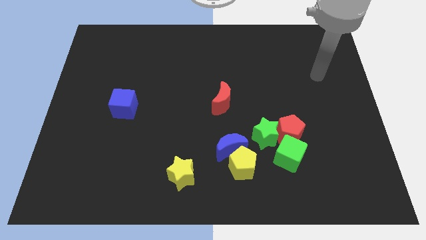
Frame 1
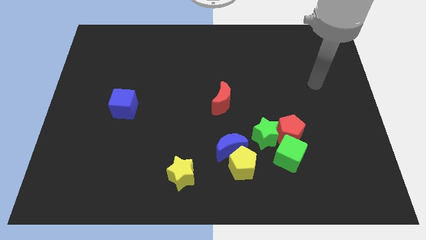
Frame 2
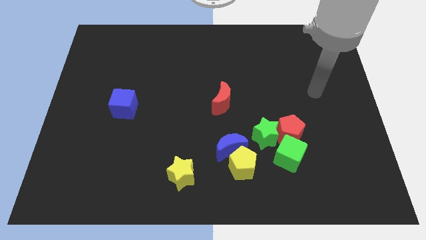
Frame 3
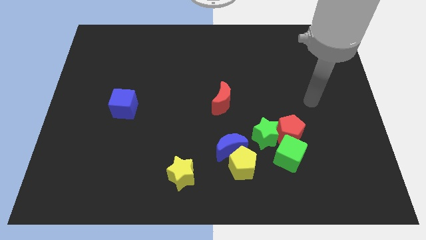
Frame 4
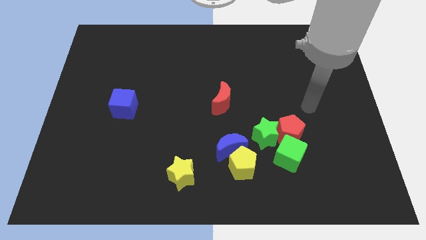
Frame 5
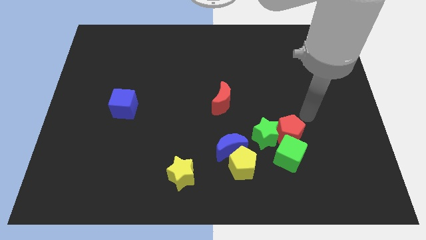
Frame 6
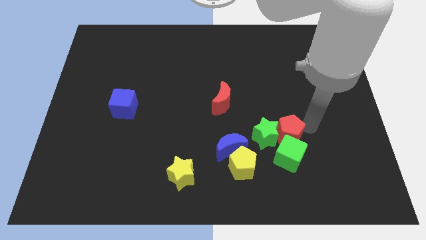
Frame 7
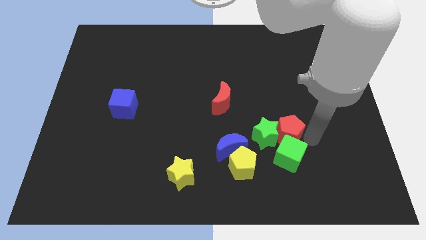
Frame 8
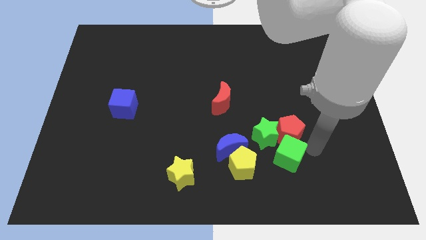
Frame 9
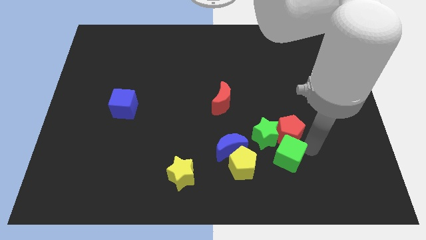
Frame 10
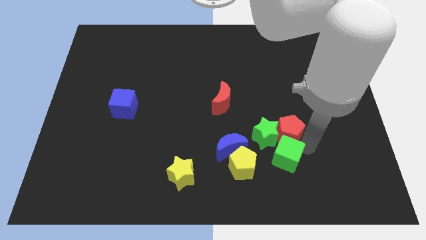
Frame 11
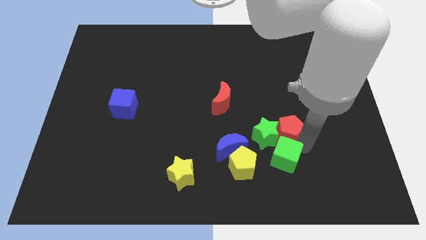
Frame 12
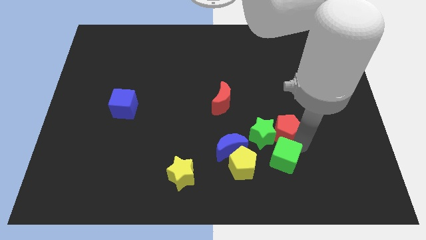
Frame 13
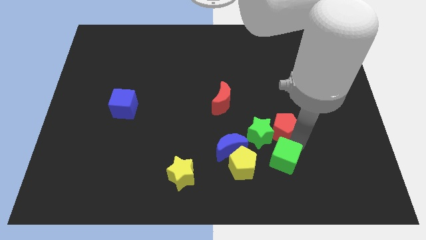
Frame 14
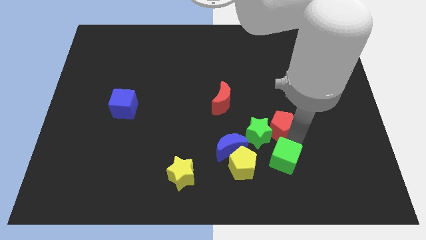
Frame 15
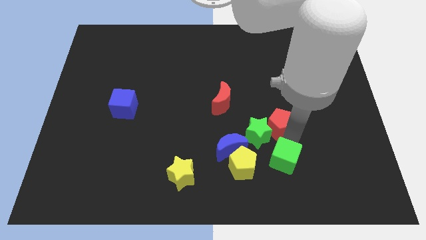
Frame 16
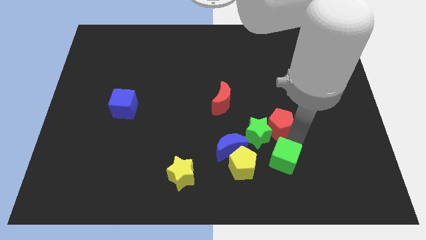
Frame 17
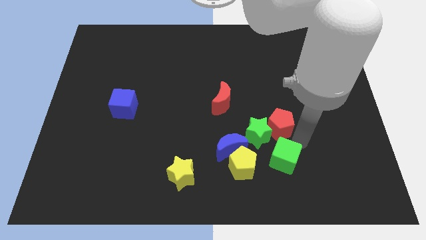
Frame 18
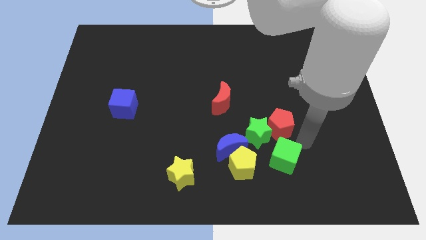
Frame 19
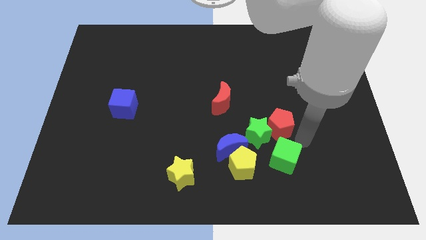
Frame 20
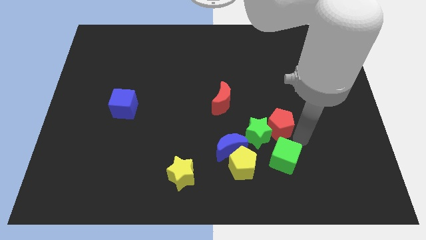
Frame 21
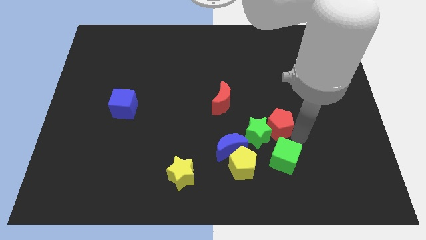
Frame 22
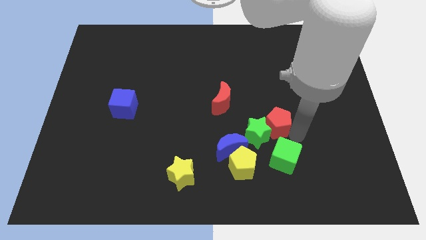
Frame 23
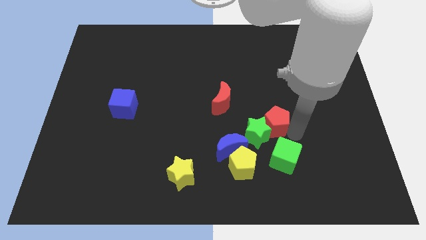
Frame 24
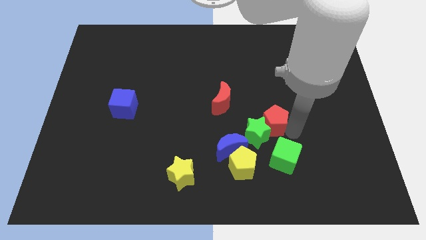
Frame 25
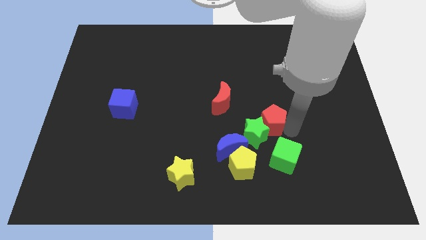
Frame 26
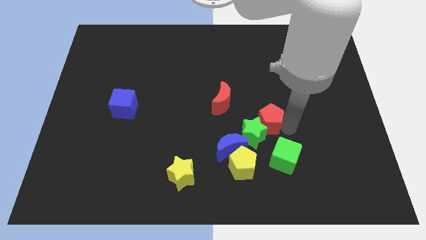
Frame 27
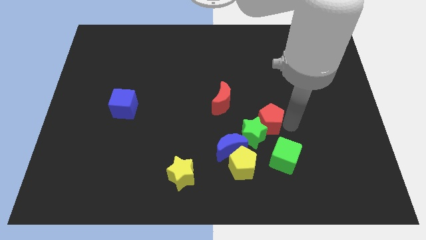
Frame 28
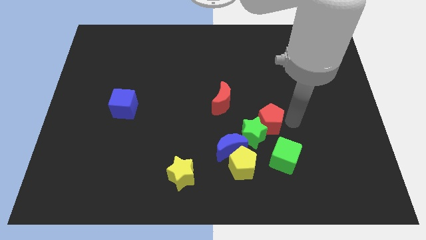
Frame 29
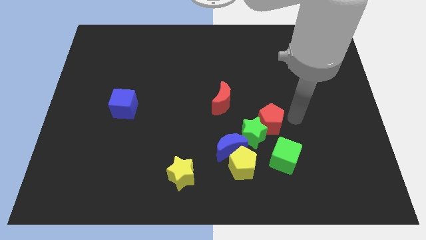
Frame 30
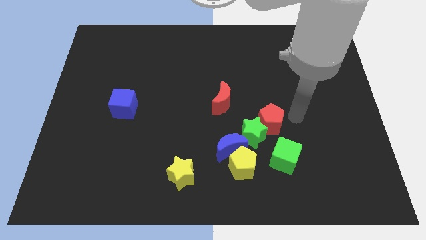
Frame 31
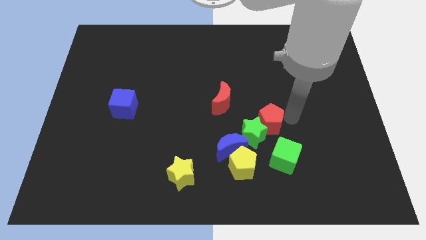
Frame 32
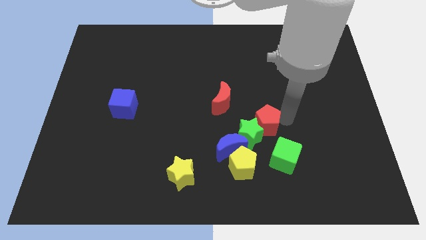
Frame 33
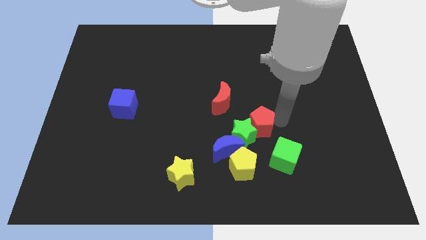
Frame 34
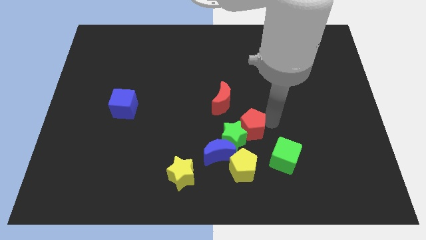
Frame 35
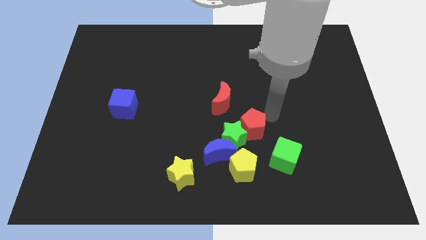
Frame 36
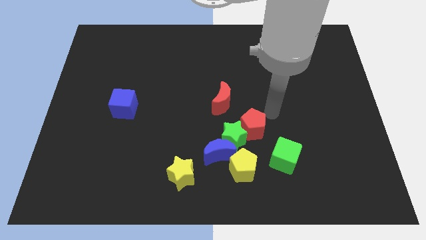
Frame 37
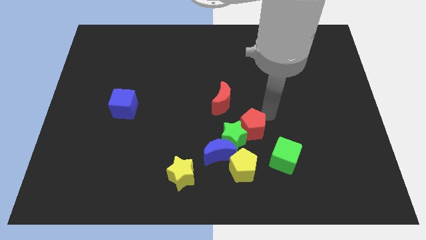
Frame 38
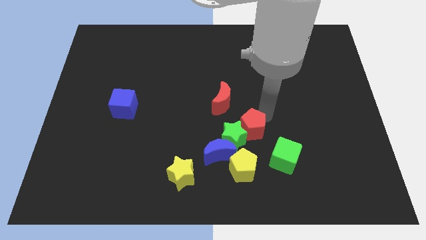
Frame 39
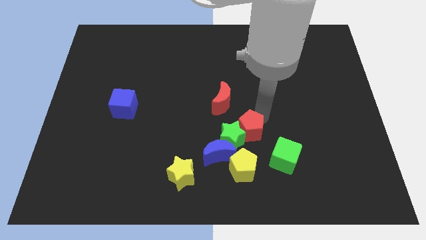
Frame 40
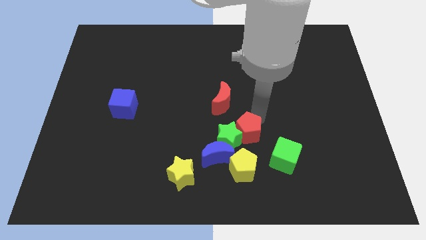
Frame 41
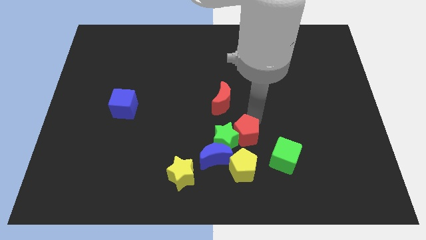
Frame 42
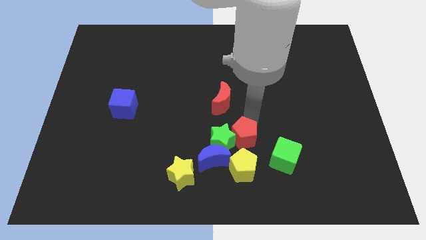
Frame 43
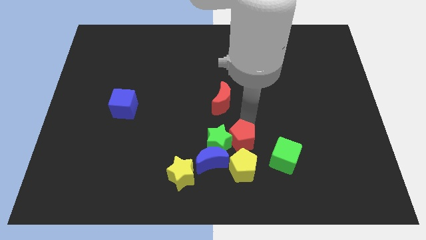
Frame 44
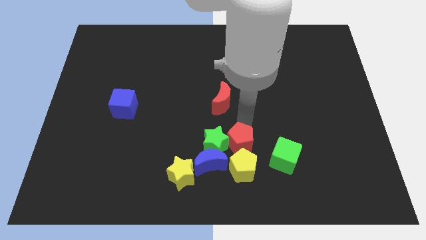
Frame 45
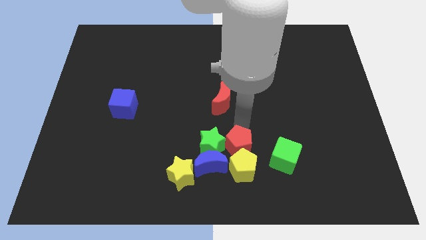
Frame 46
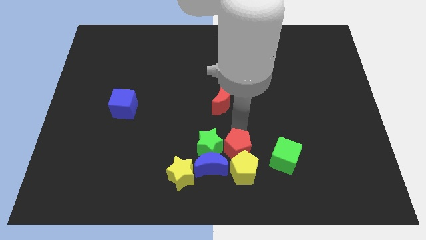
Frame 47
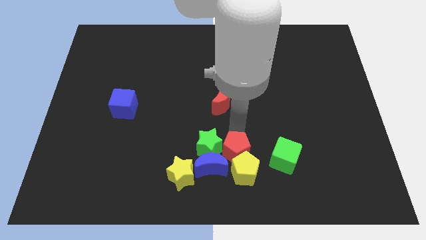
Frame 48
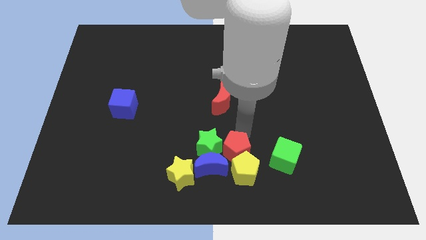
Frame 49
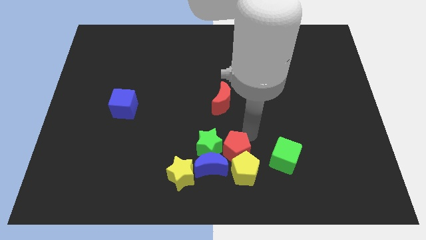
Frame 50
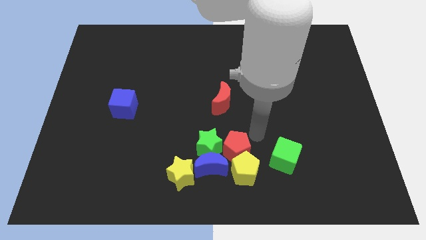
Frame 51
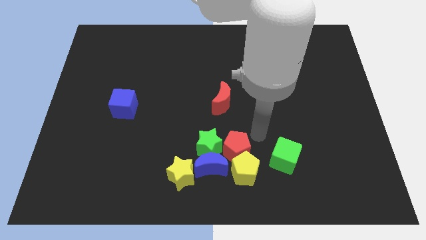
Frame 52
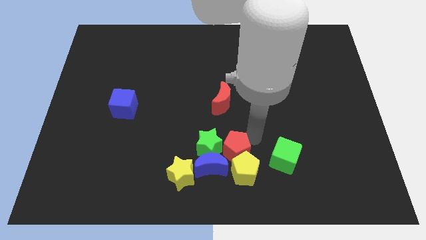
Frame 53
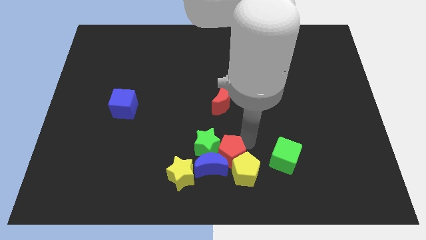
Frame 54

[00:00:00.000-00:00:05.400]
slide the red pentagon close to the blue moon

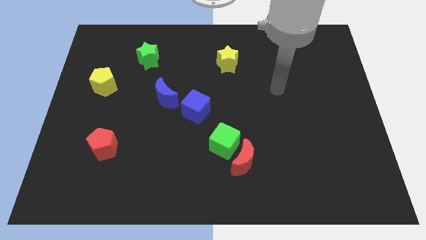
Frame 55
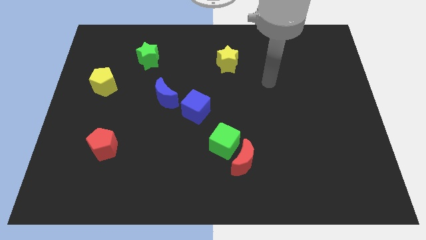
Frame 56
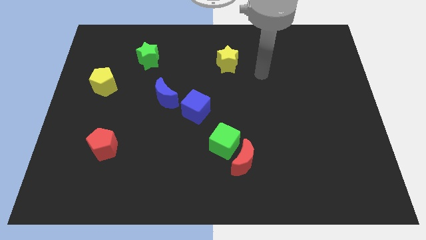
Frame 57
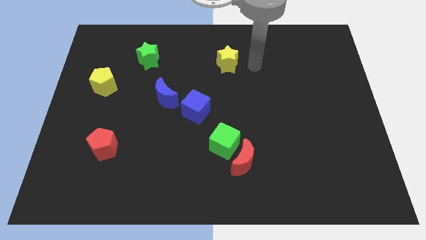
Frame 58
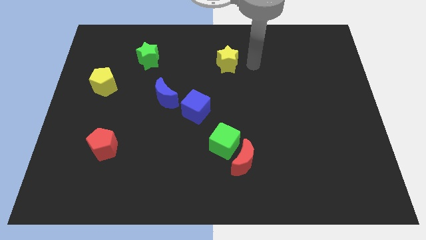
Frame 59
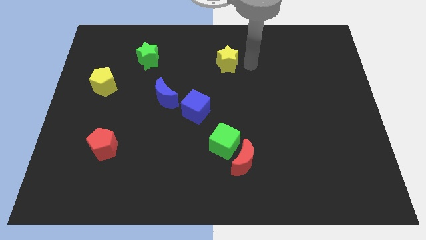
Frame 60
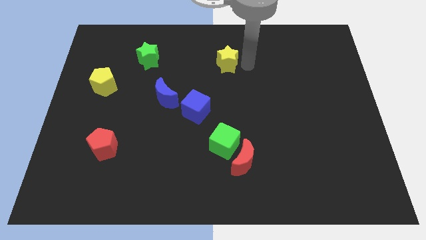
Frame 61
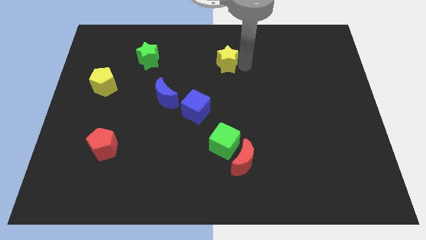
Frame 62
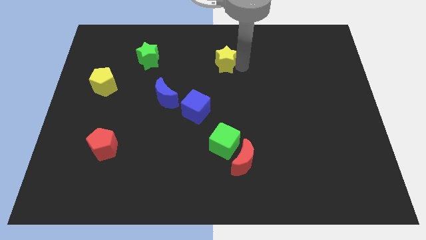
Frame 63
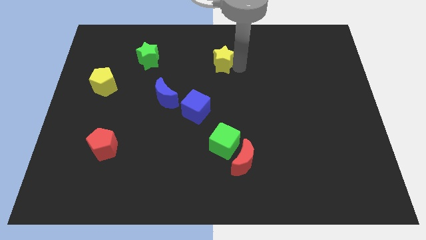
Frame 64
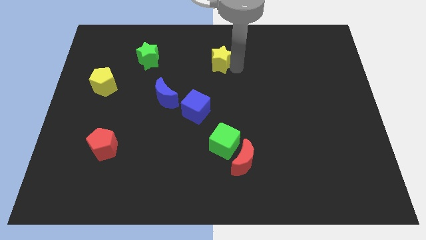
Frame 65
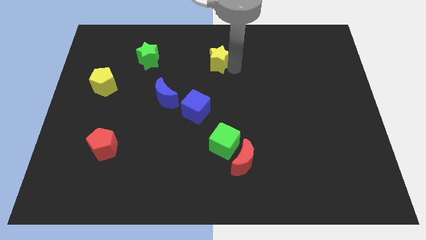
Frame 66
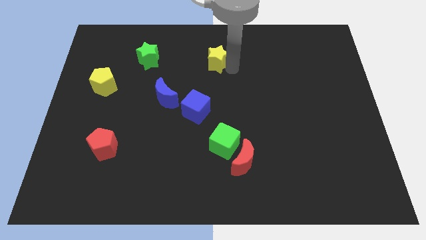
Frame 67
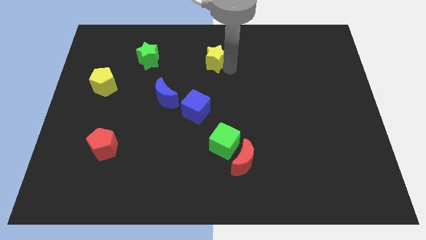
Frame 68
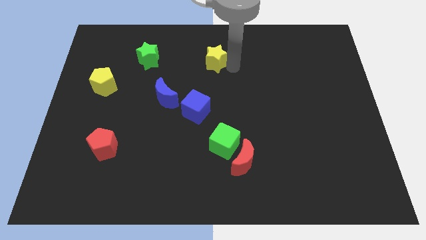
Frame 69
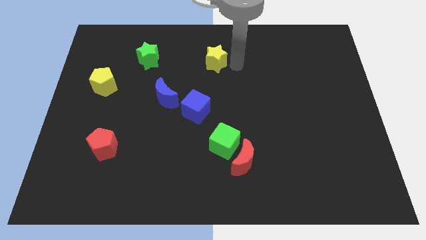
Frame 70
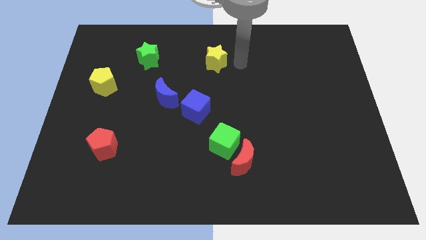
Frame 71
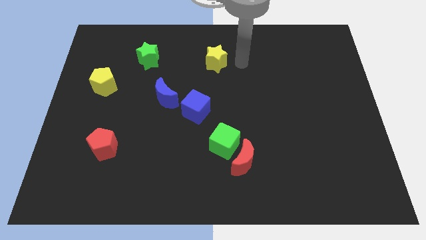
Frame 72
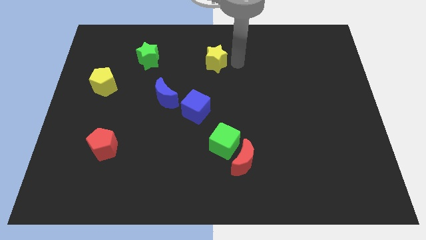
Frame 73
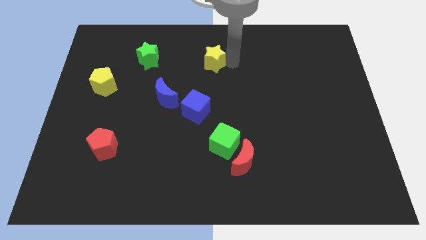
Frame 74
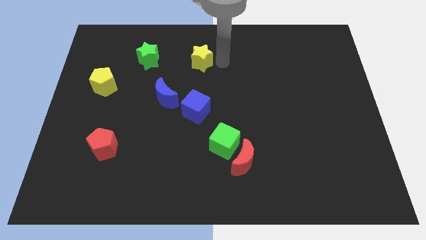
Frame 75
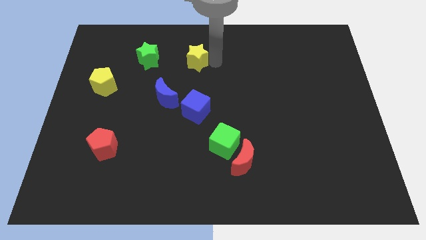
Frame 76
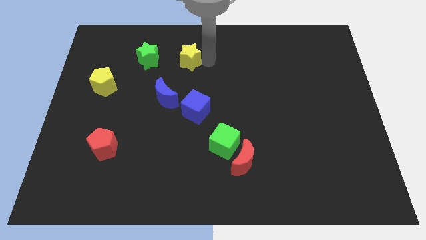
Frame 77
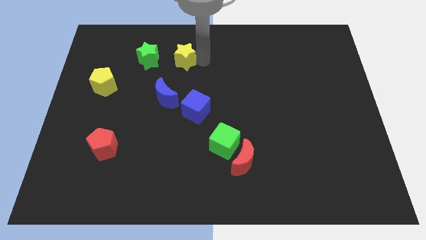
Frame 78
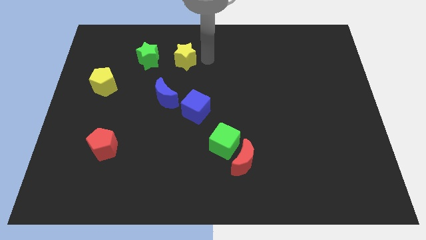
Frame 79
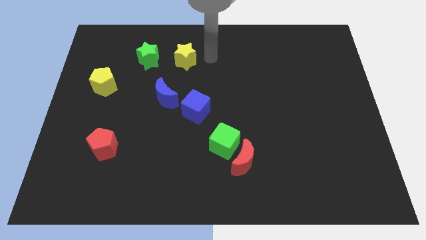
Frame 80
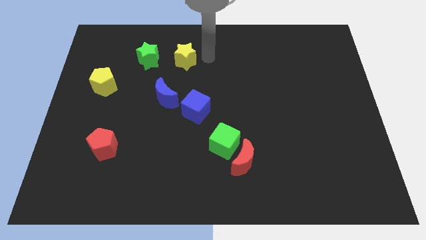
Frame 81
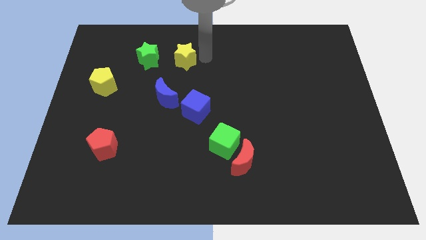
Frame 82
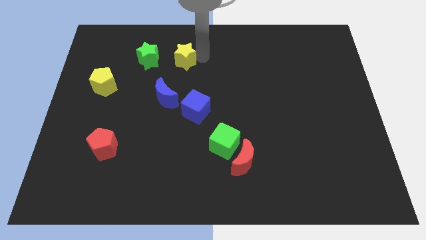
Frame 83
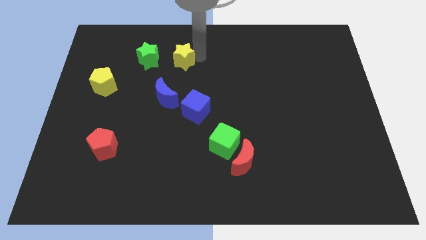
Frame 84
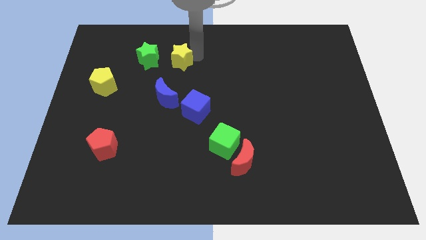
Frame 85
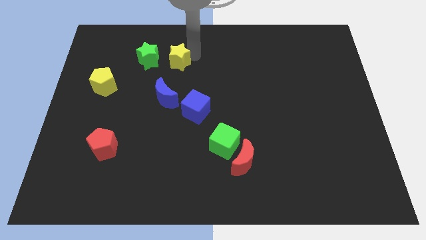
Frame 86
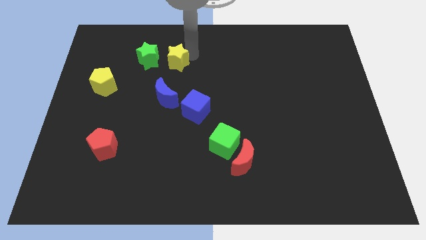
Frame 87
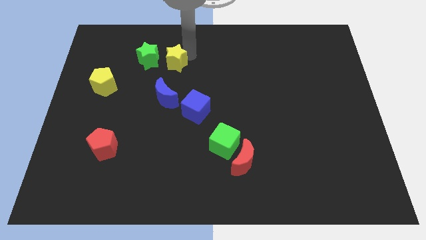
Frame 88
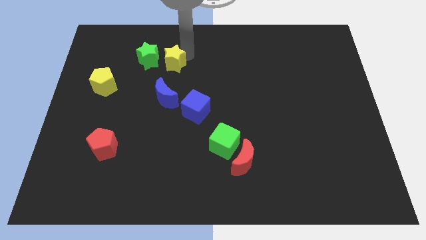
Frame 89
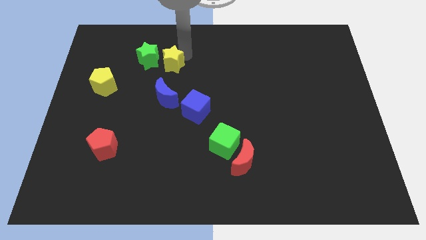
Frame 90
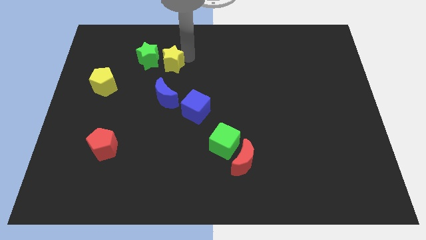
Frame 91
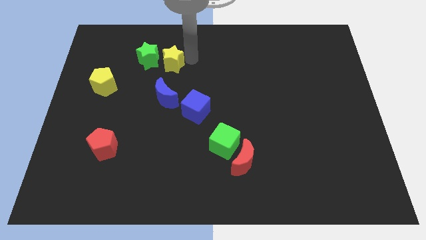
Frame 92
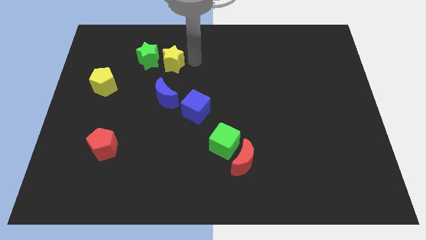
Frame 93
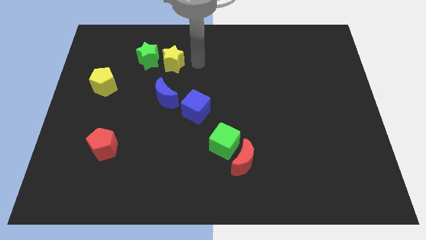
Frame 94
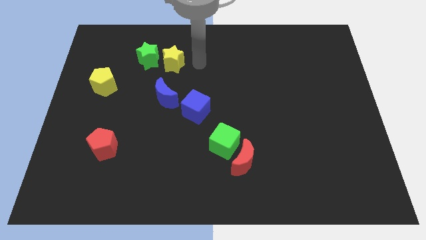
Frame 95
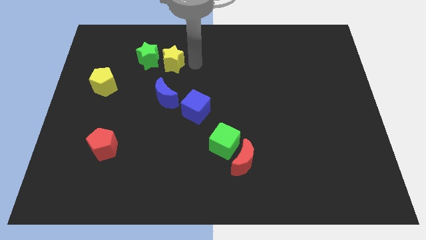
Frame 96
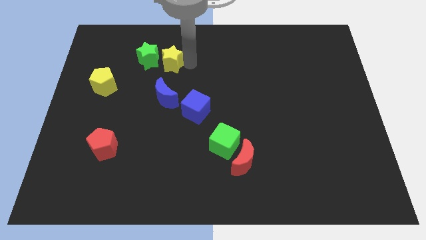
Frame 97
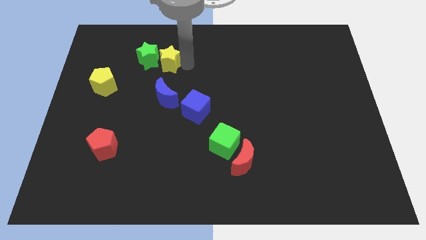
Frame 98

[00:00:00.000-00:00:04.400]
push the yellow star next to the green star
